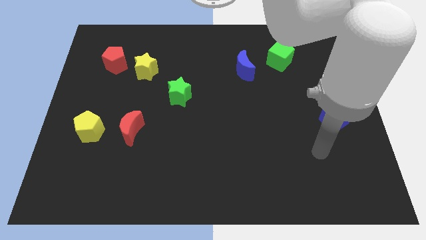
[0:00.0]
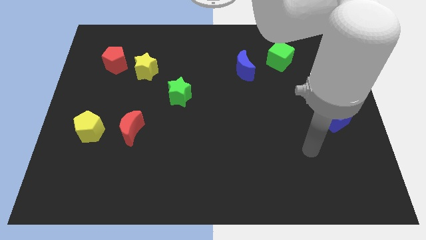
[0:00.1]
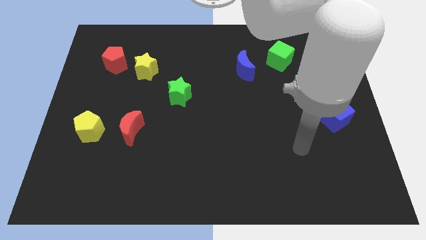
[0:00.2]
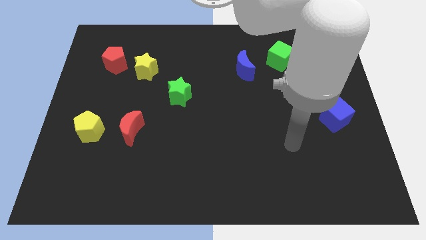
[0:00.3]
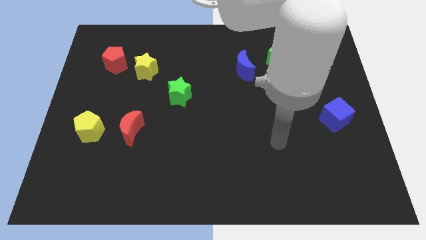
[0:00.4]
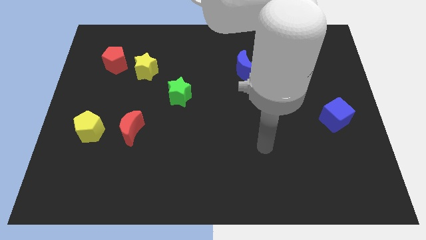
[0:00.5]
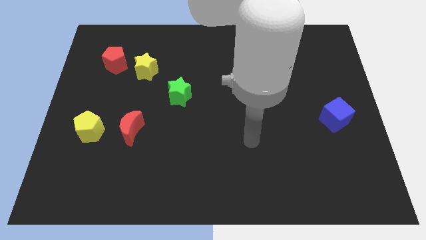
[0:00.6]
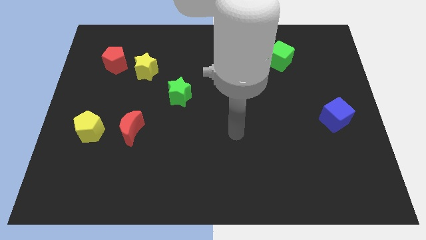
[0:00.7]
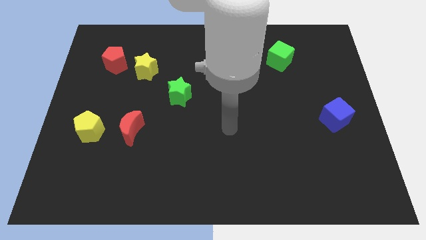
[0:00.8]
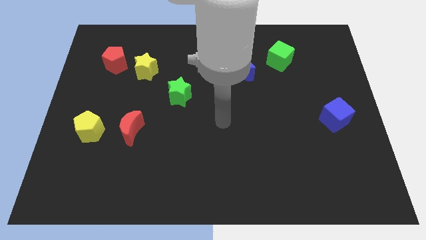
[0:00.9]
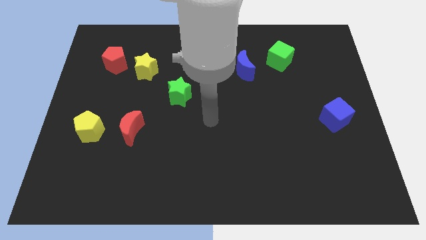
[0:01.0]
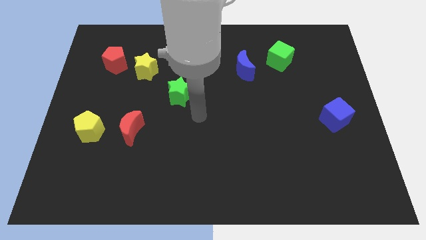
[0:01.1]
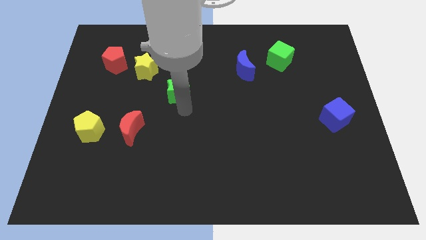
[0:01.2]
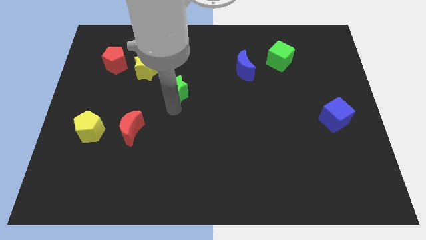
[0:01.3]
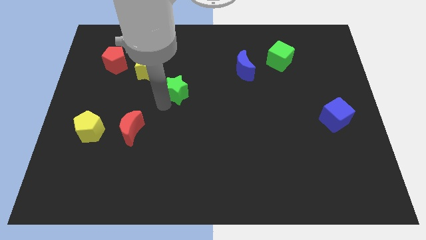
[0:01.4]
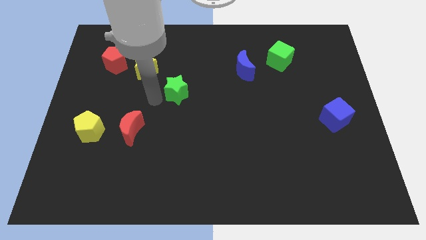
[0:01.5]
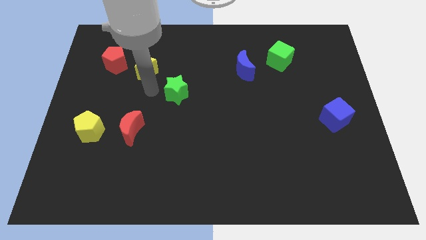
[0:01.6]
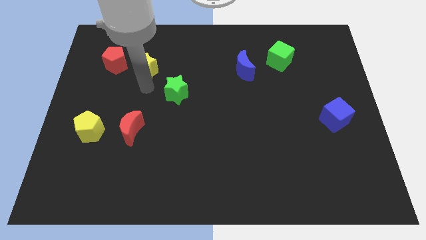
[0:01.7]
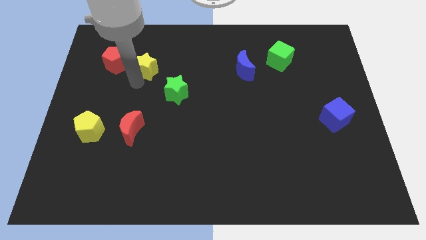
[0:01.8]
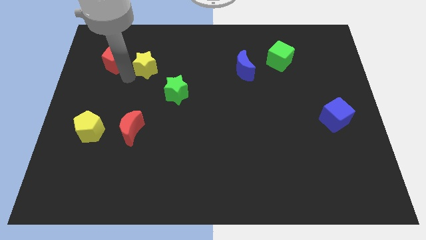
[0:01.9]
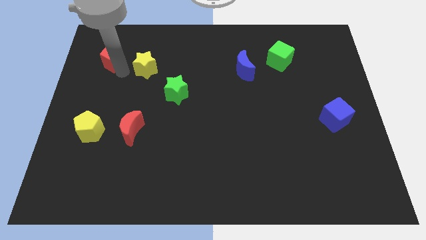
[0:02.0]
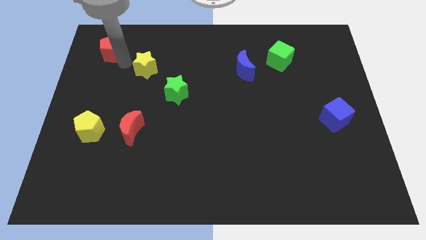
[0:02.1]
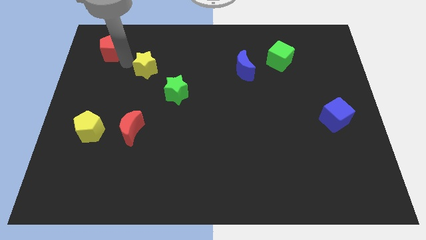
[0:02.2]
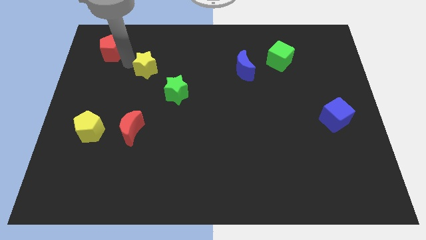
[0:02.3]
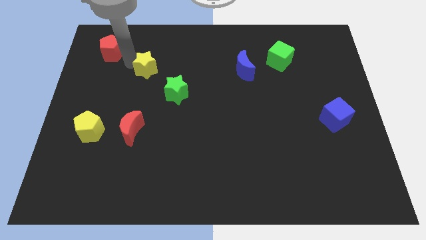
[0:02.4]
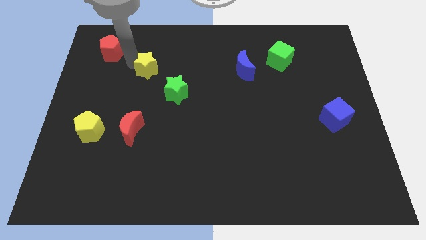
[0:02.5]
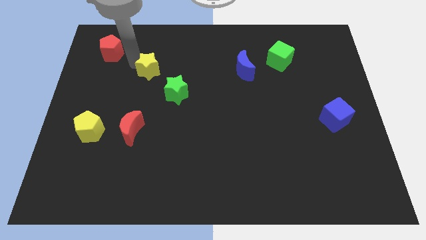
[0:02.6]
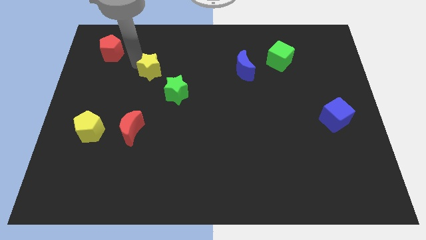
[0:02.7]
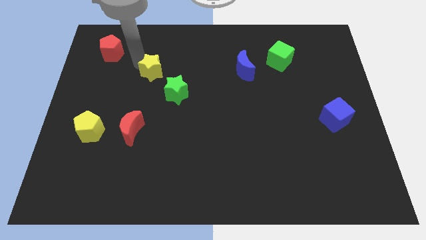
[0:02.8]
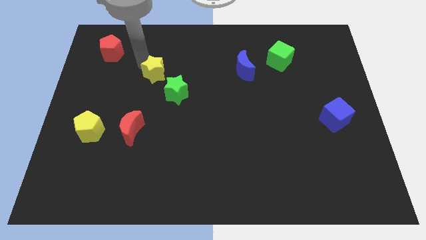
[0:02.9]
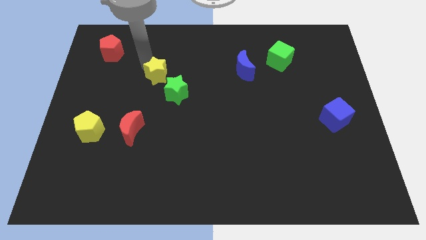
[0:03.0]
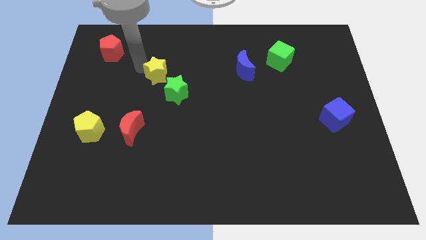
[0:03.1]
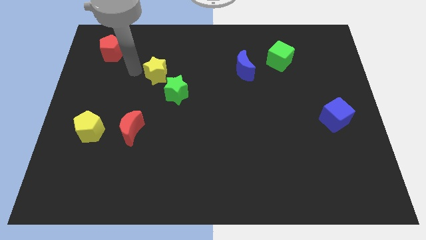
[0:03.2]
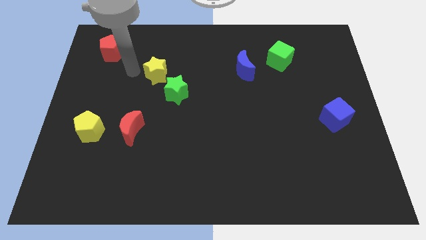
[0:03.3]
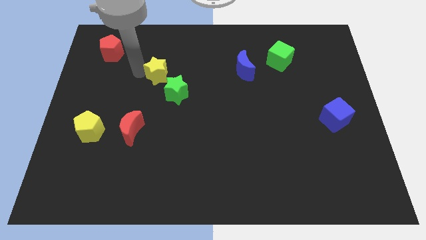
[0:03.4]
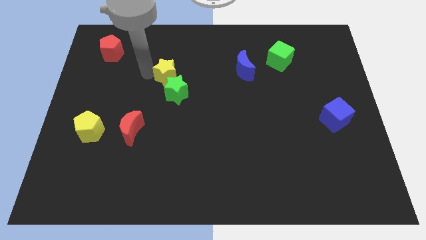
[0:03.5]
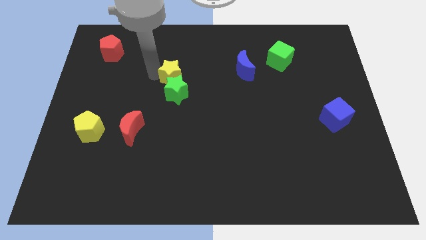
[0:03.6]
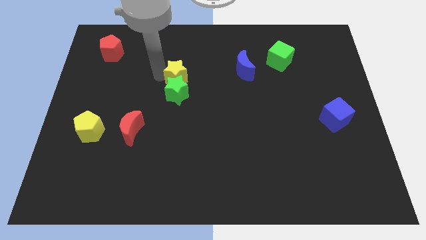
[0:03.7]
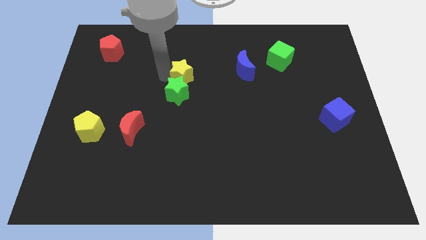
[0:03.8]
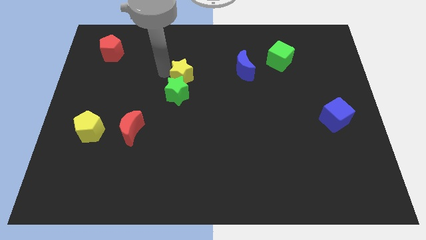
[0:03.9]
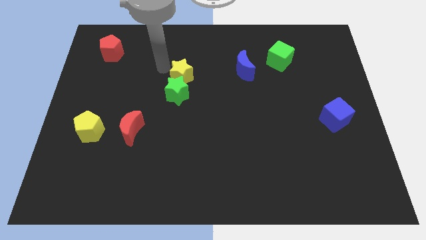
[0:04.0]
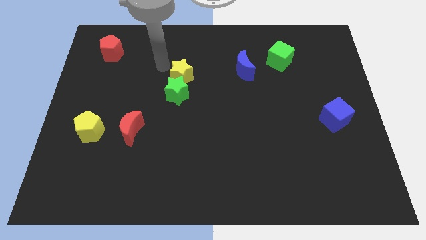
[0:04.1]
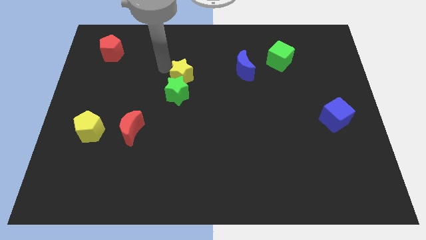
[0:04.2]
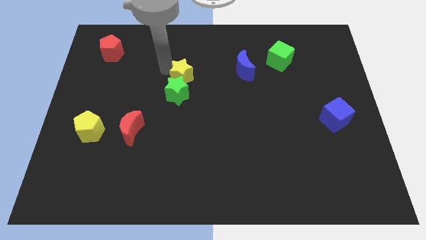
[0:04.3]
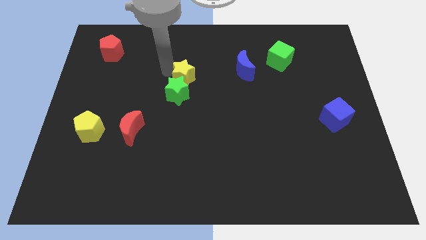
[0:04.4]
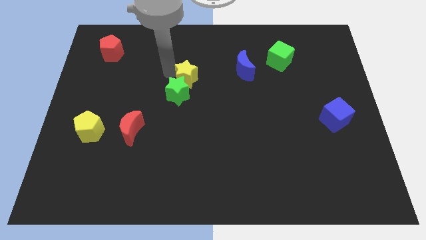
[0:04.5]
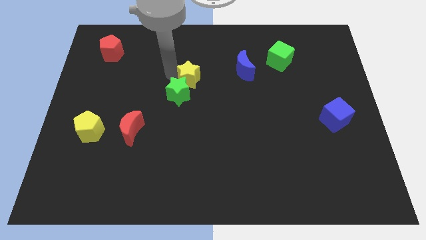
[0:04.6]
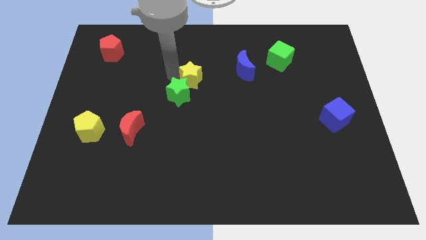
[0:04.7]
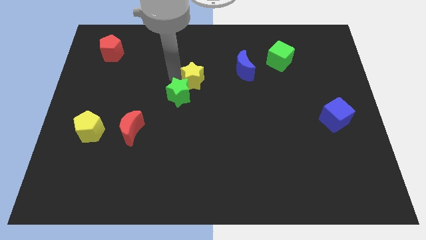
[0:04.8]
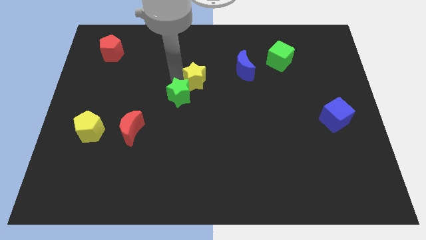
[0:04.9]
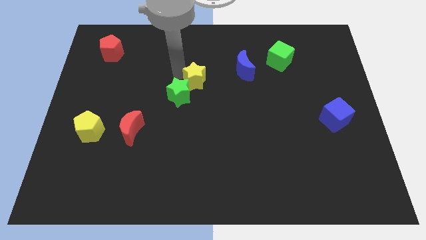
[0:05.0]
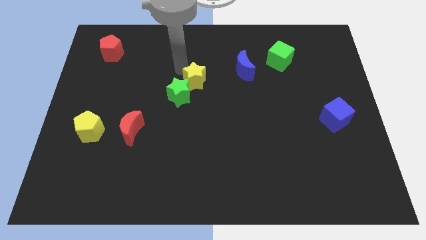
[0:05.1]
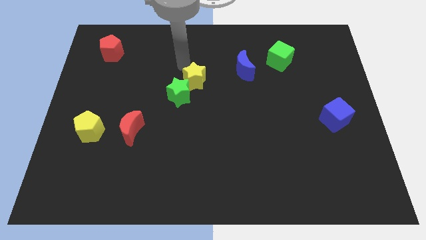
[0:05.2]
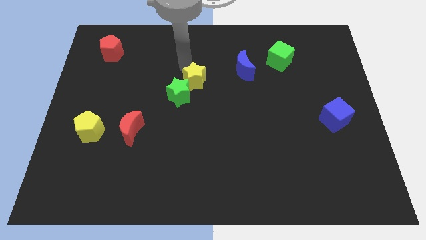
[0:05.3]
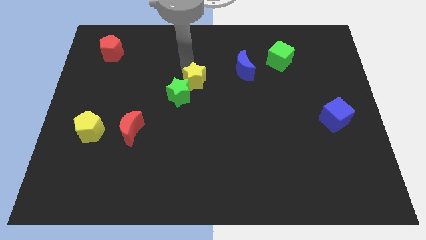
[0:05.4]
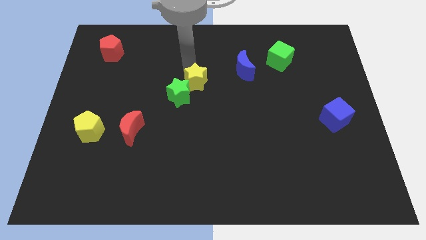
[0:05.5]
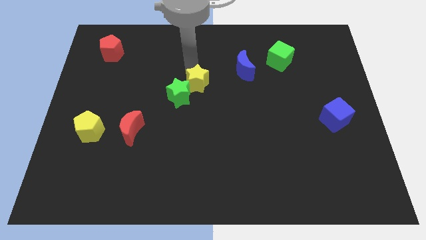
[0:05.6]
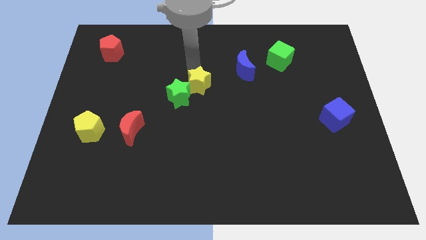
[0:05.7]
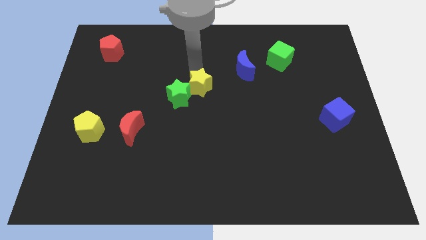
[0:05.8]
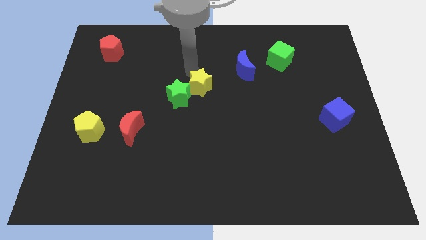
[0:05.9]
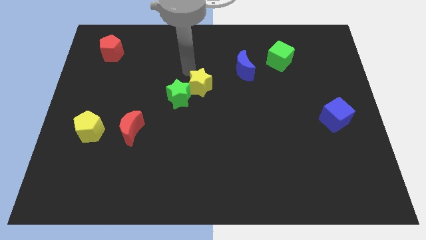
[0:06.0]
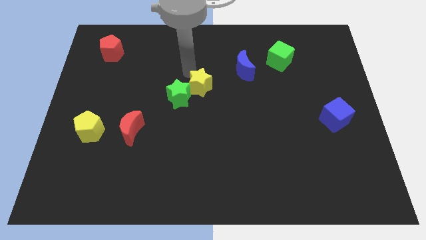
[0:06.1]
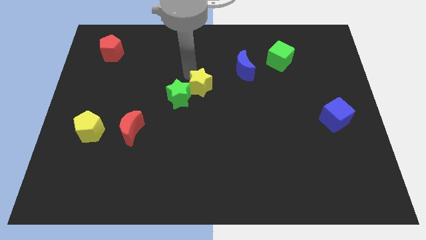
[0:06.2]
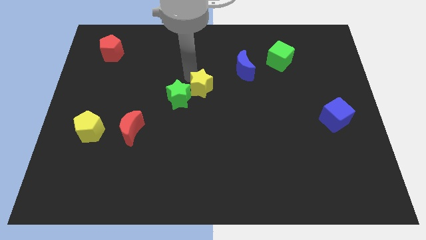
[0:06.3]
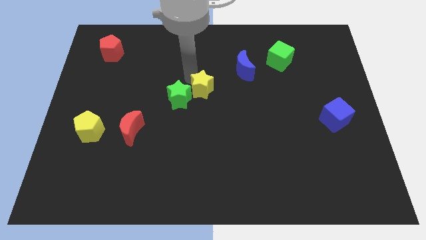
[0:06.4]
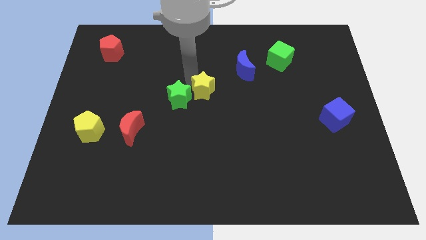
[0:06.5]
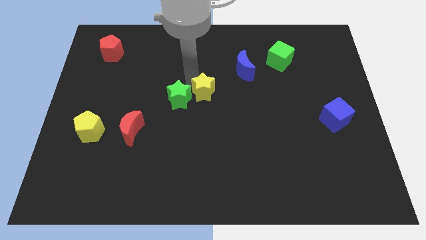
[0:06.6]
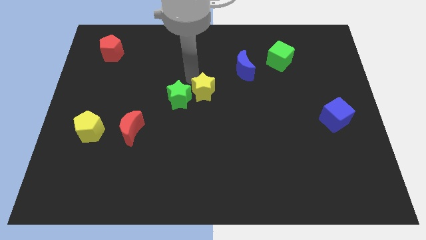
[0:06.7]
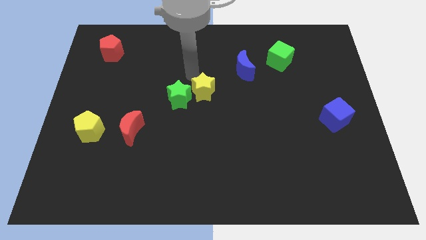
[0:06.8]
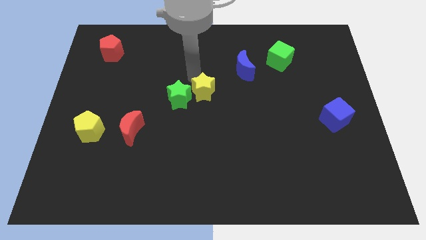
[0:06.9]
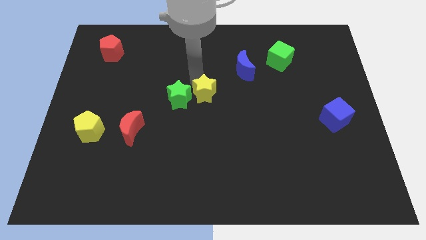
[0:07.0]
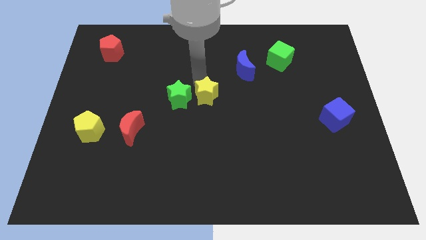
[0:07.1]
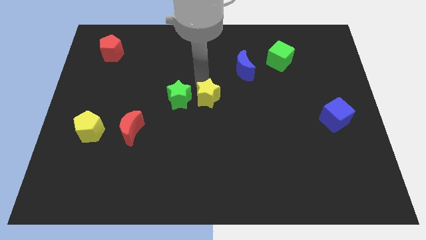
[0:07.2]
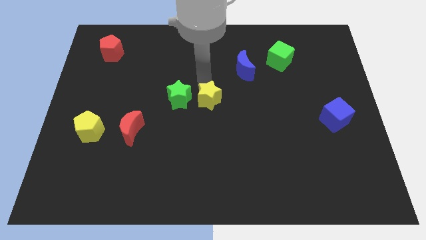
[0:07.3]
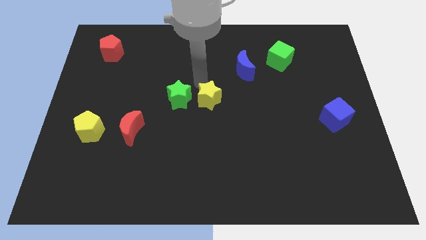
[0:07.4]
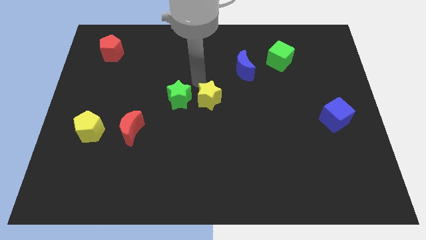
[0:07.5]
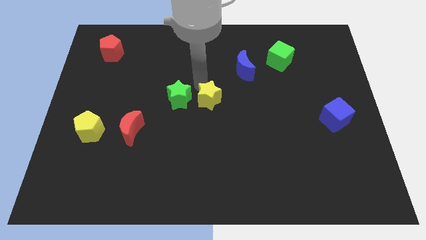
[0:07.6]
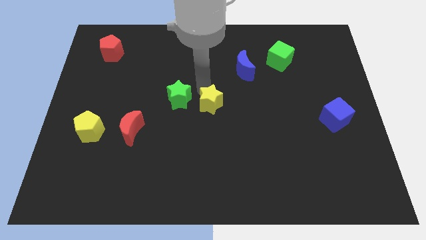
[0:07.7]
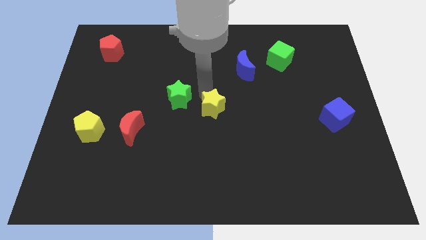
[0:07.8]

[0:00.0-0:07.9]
slide the yellow star downwards and then right

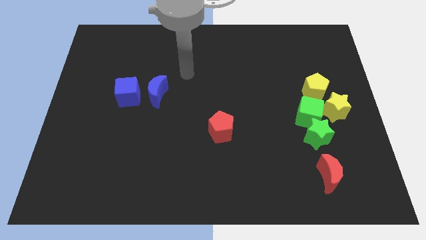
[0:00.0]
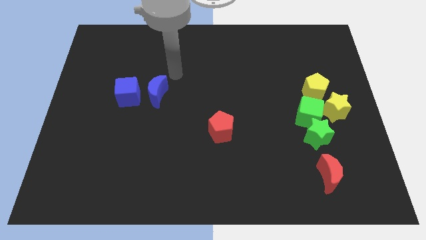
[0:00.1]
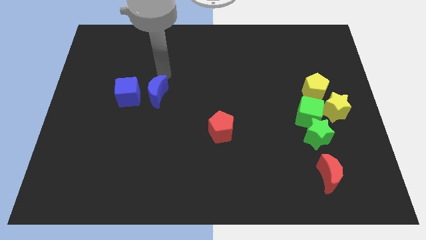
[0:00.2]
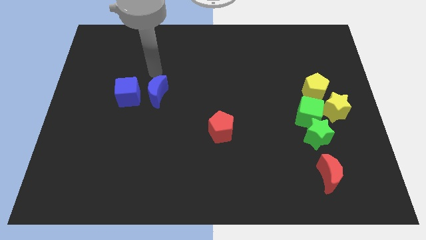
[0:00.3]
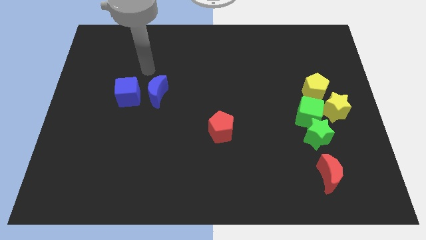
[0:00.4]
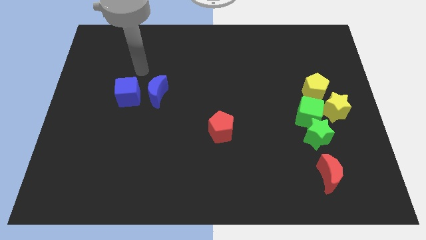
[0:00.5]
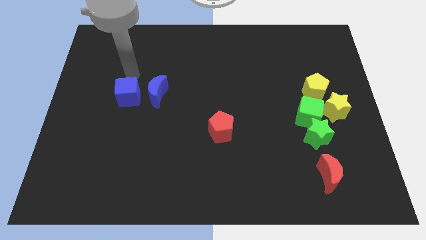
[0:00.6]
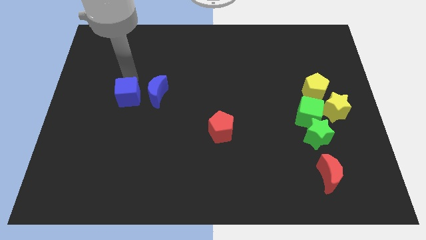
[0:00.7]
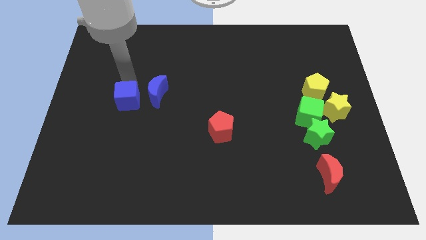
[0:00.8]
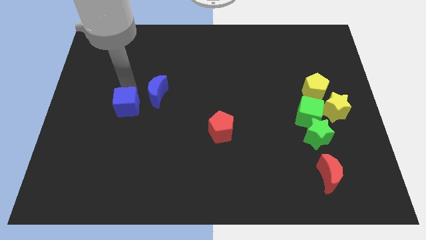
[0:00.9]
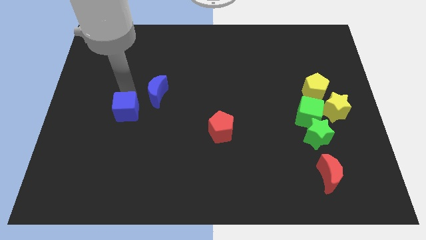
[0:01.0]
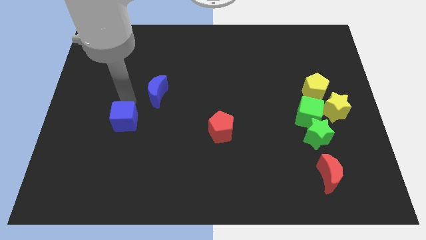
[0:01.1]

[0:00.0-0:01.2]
slide the blue cube somewhat downwards
